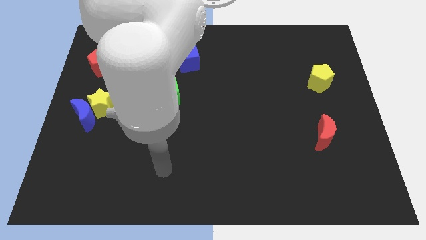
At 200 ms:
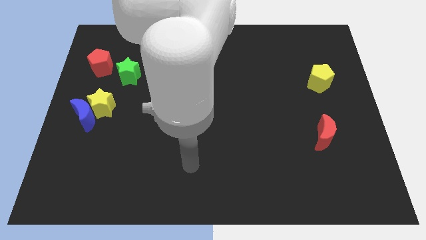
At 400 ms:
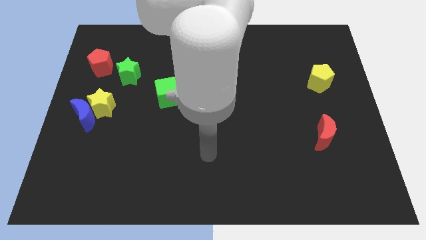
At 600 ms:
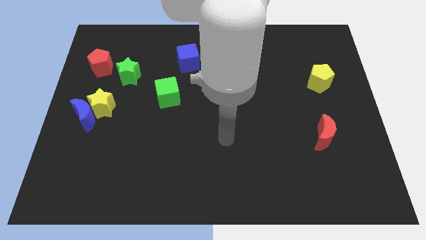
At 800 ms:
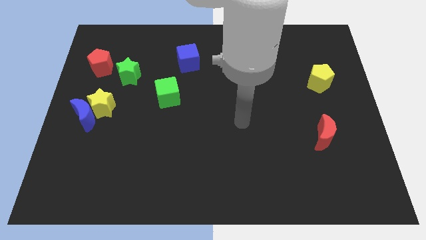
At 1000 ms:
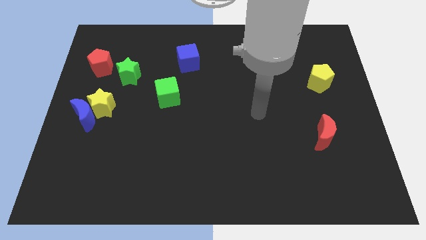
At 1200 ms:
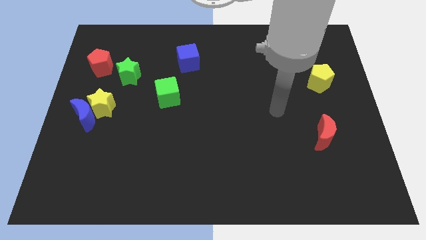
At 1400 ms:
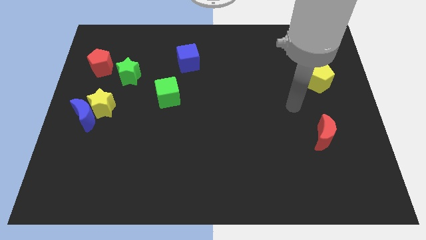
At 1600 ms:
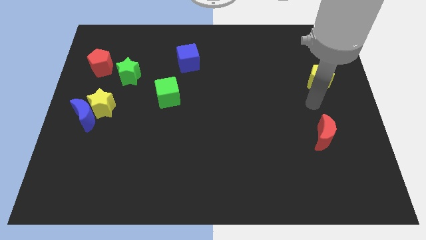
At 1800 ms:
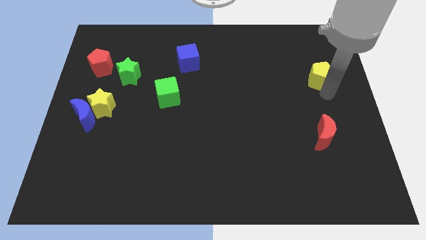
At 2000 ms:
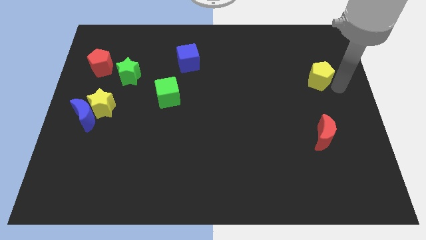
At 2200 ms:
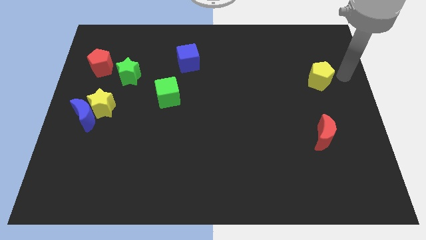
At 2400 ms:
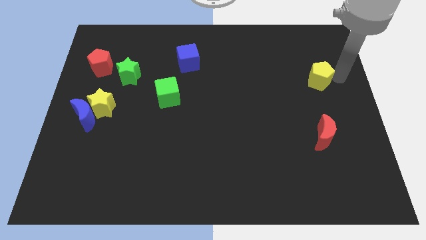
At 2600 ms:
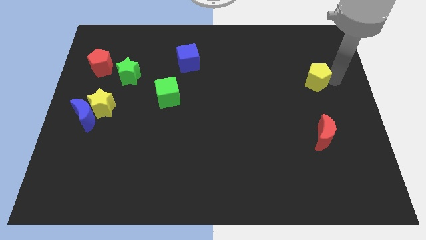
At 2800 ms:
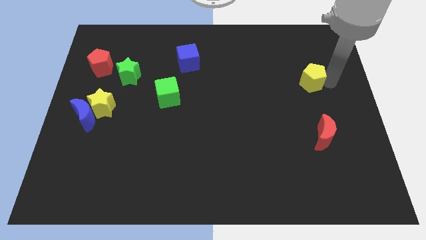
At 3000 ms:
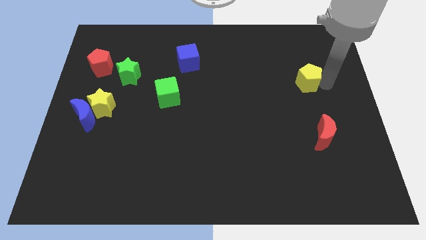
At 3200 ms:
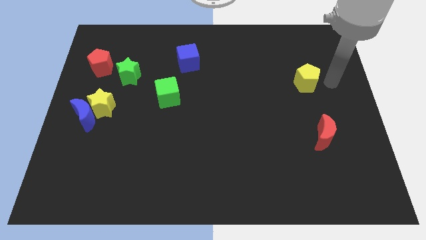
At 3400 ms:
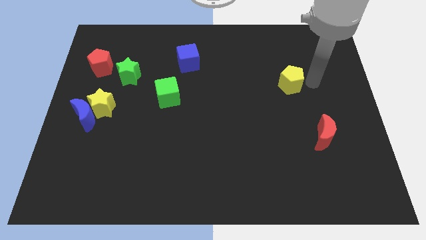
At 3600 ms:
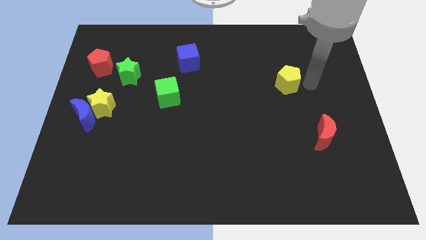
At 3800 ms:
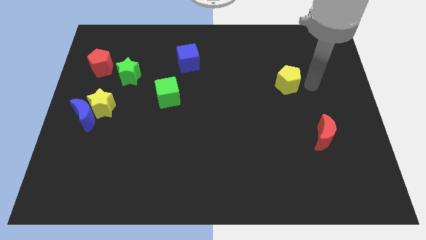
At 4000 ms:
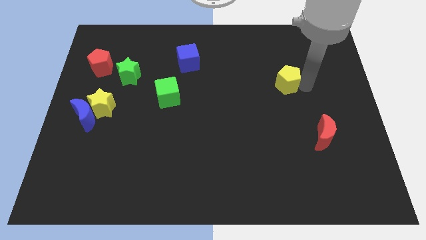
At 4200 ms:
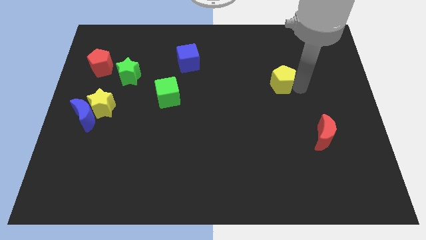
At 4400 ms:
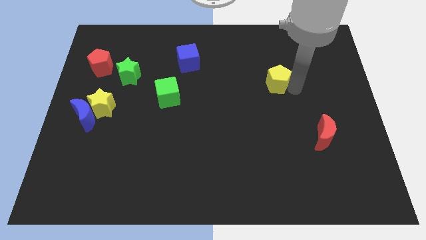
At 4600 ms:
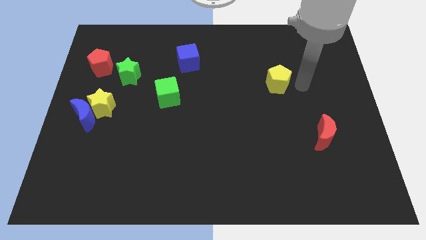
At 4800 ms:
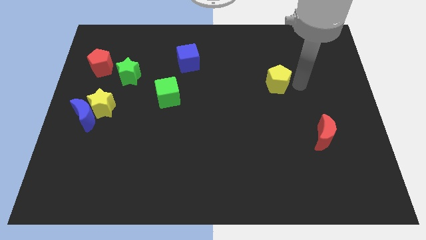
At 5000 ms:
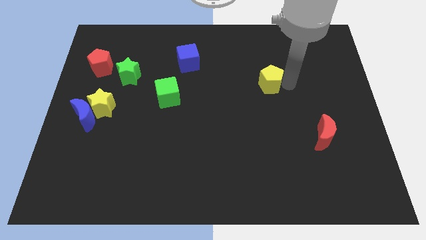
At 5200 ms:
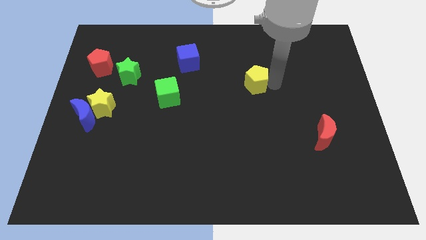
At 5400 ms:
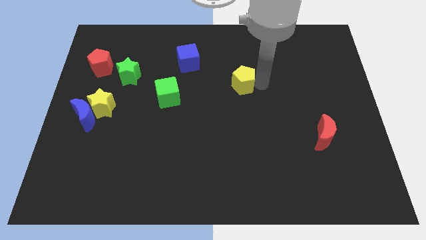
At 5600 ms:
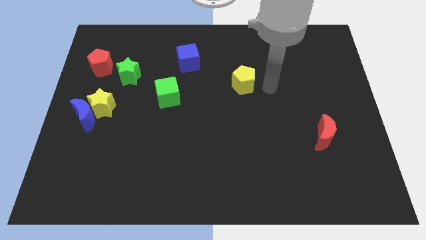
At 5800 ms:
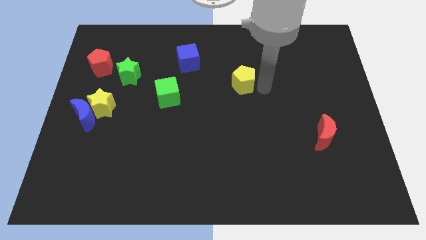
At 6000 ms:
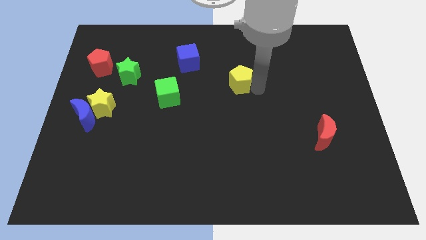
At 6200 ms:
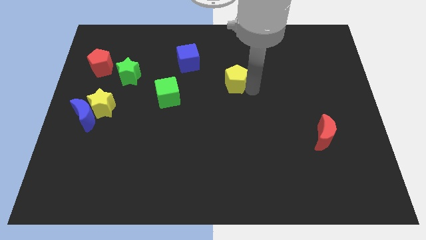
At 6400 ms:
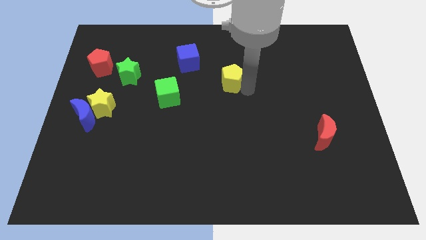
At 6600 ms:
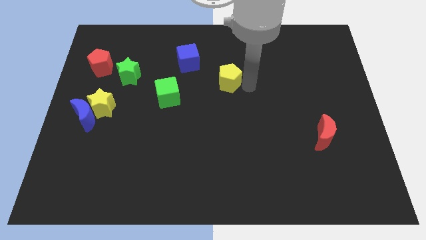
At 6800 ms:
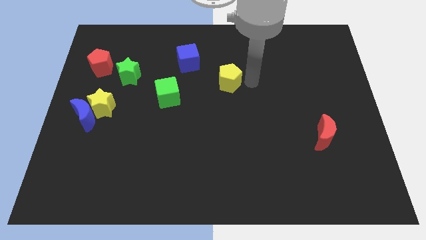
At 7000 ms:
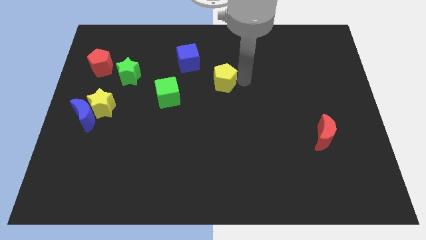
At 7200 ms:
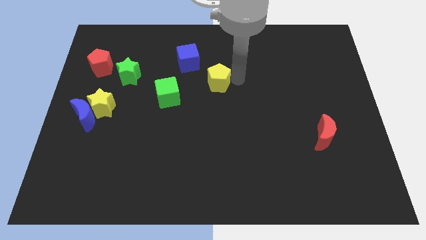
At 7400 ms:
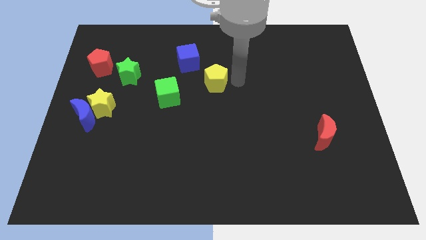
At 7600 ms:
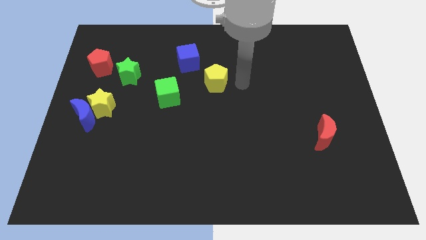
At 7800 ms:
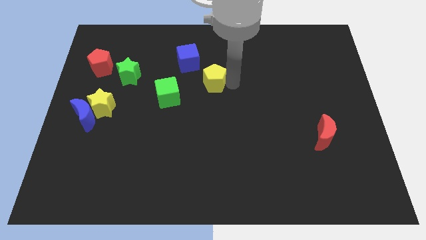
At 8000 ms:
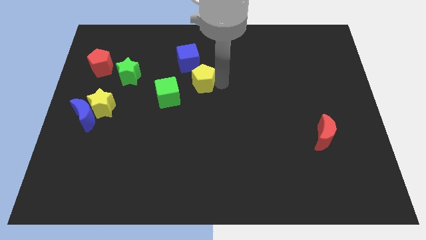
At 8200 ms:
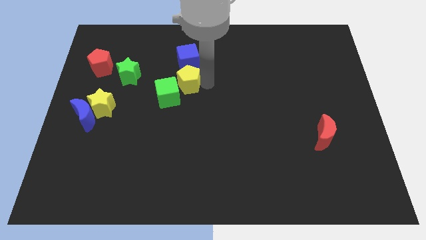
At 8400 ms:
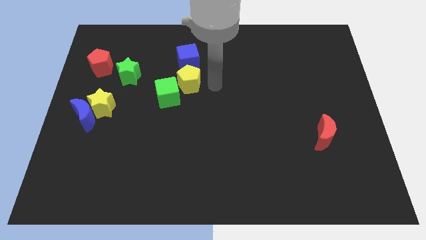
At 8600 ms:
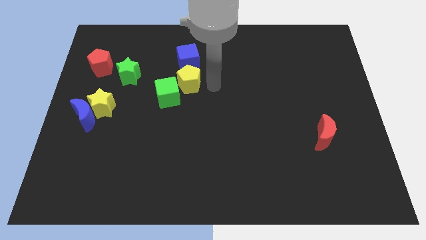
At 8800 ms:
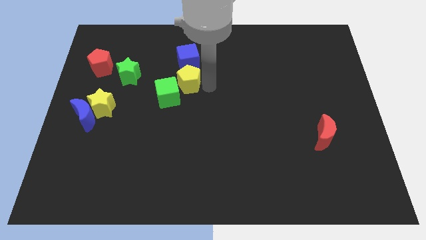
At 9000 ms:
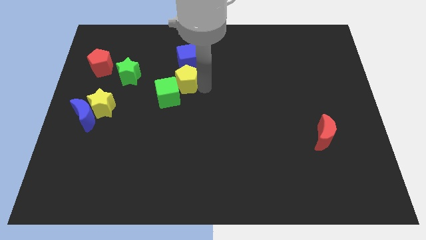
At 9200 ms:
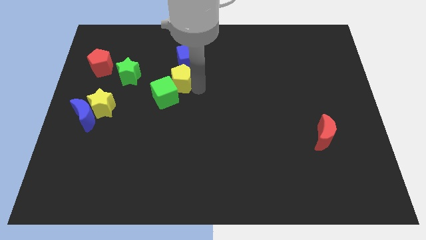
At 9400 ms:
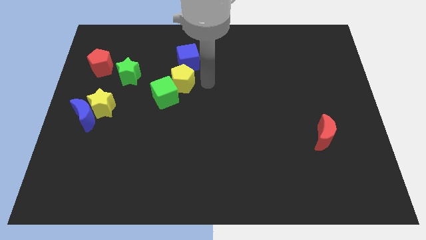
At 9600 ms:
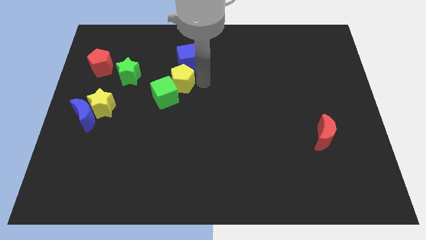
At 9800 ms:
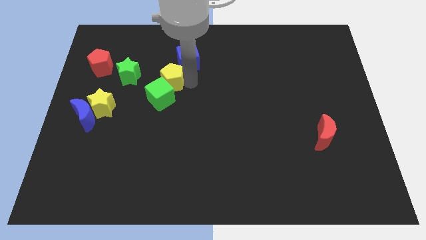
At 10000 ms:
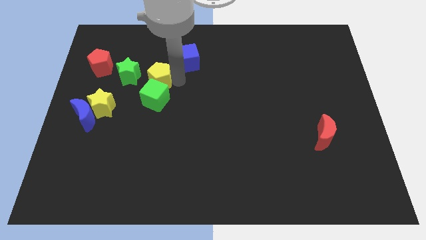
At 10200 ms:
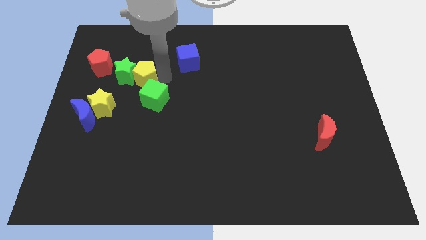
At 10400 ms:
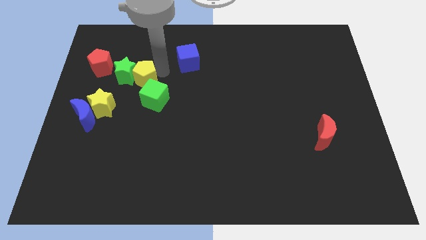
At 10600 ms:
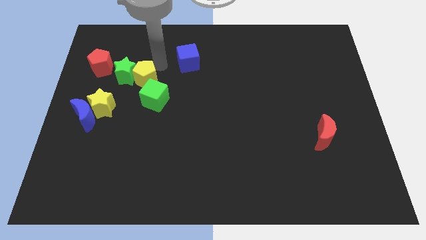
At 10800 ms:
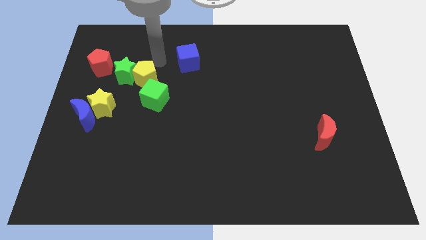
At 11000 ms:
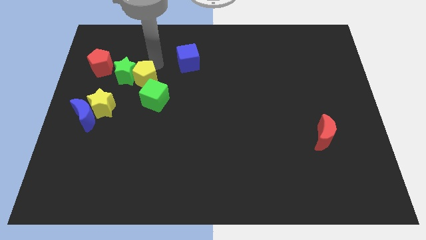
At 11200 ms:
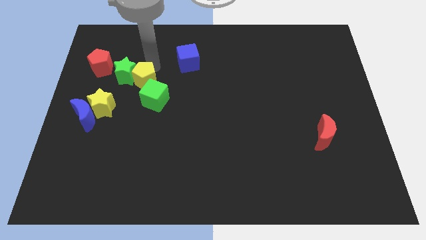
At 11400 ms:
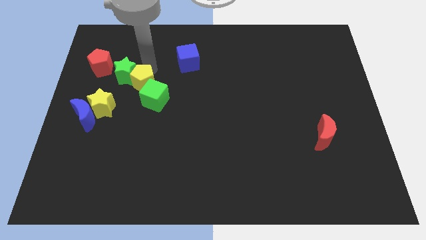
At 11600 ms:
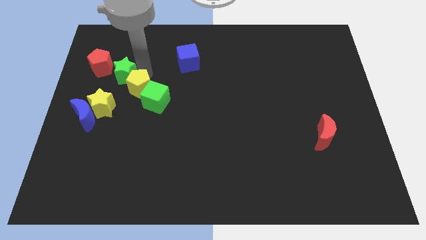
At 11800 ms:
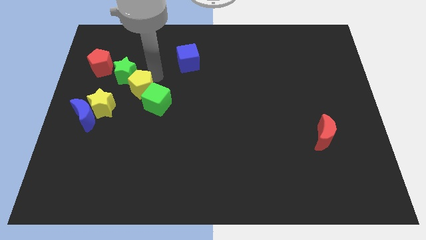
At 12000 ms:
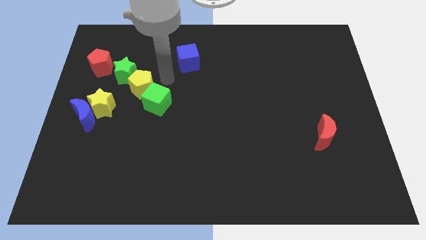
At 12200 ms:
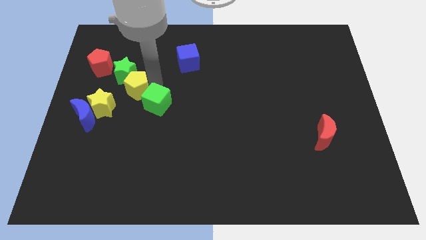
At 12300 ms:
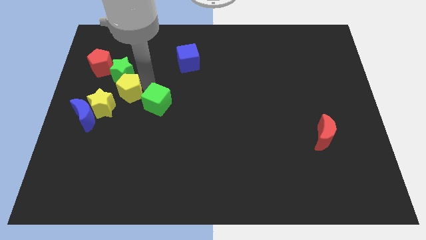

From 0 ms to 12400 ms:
push the yellow pentagon diagonally up and to the right of the blue moon
